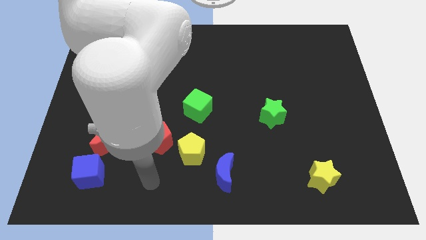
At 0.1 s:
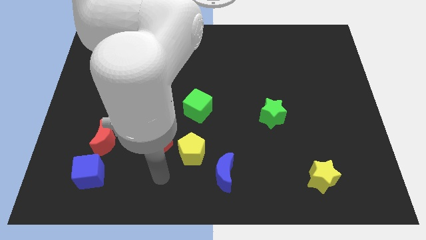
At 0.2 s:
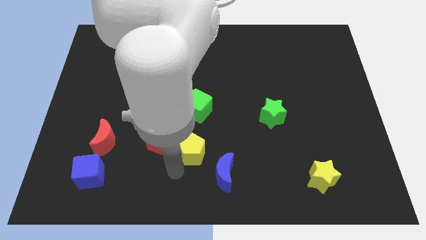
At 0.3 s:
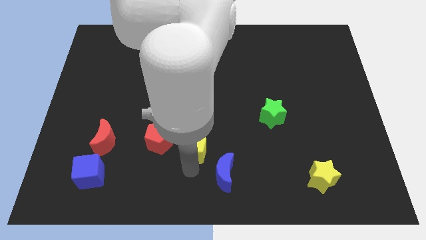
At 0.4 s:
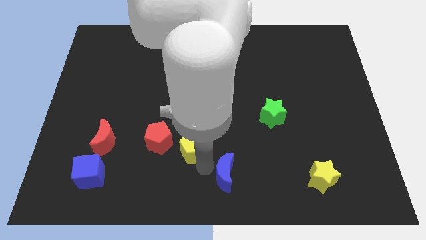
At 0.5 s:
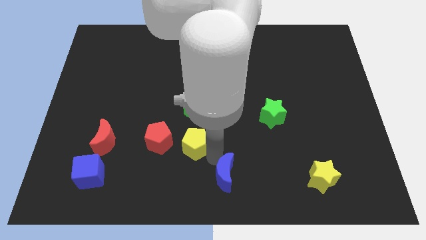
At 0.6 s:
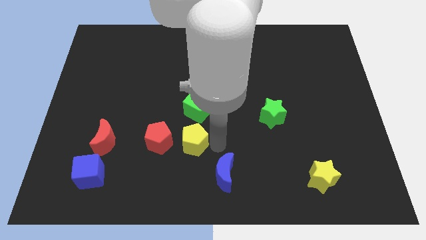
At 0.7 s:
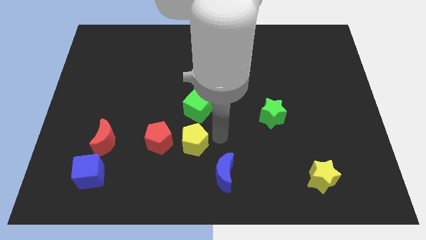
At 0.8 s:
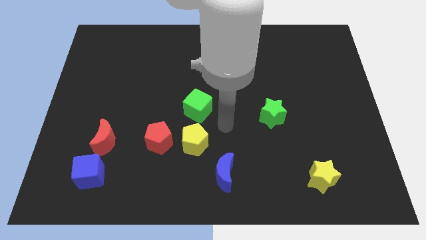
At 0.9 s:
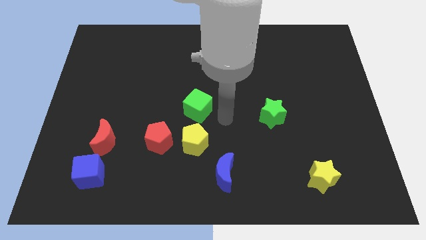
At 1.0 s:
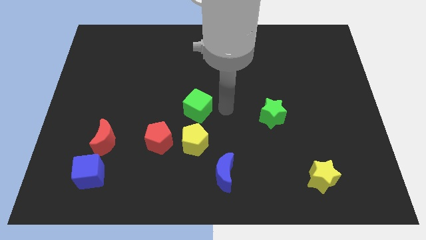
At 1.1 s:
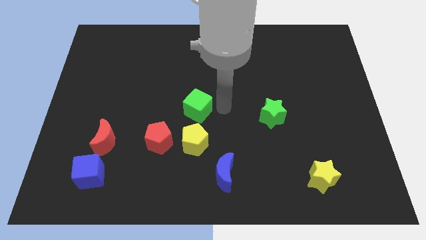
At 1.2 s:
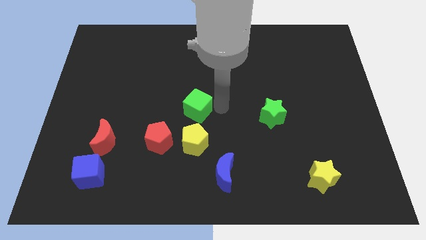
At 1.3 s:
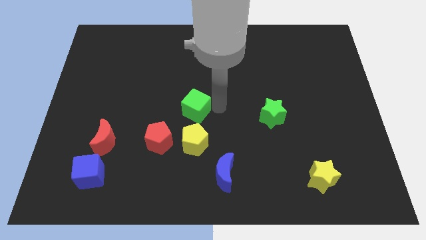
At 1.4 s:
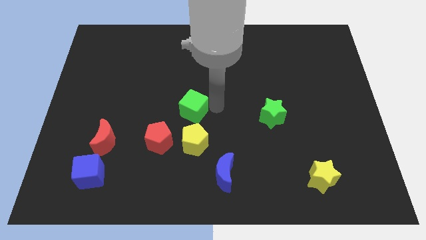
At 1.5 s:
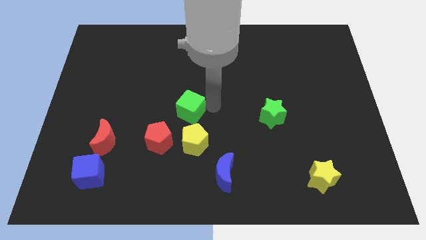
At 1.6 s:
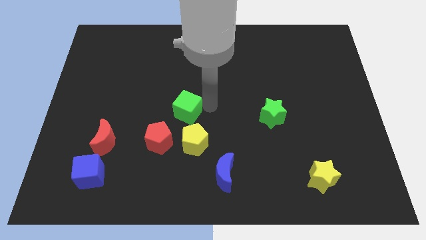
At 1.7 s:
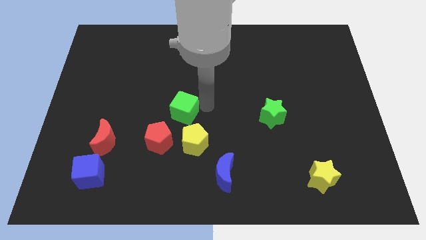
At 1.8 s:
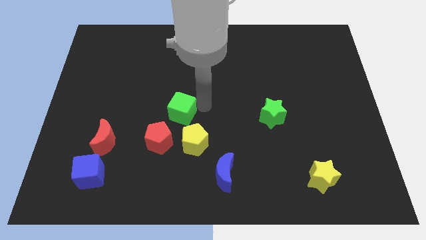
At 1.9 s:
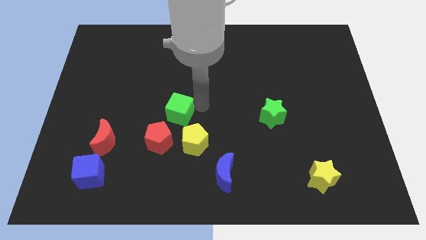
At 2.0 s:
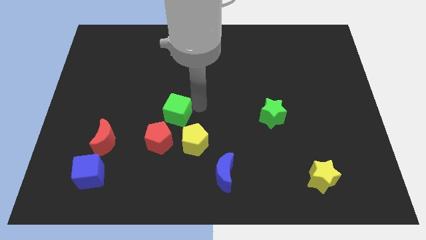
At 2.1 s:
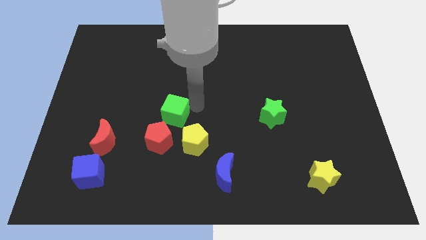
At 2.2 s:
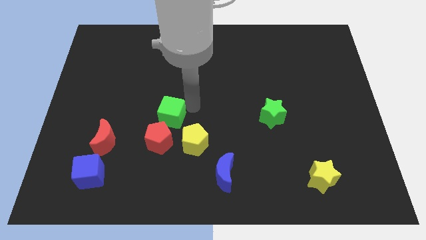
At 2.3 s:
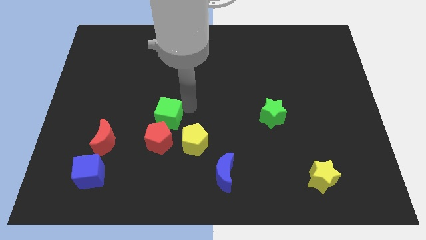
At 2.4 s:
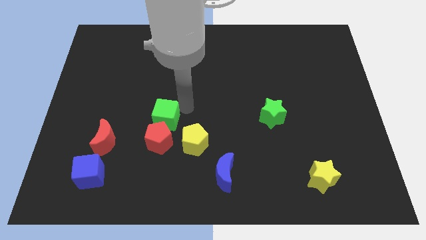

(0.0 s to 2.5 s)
slightly push the green cube left

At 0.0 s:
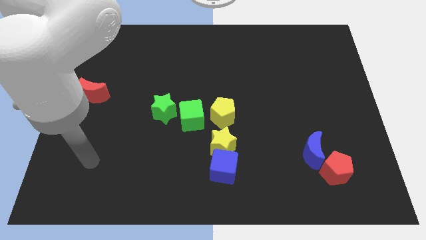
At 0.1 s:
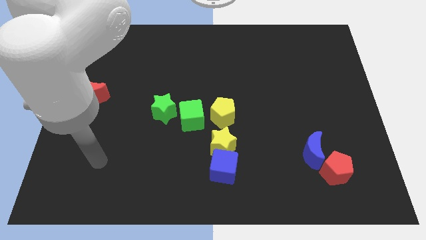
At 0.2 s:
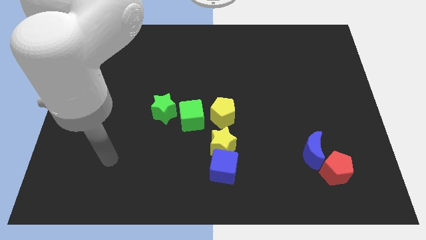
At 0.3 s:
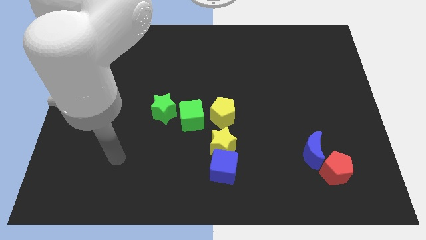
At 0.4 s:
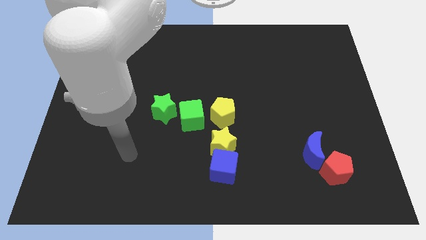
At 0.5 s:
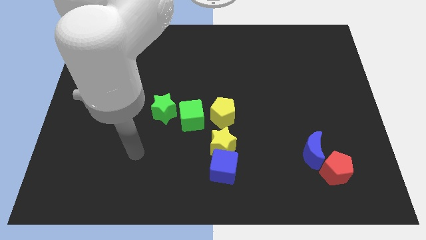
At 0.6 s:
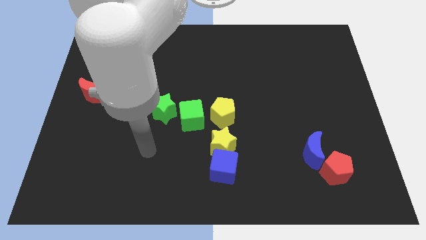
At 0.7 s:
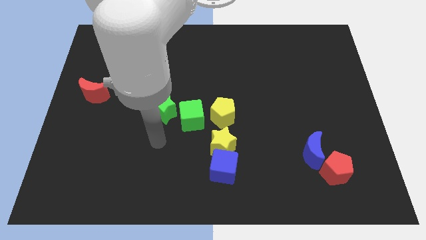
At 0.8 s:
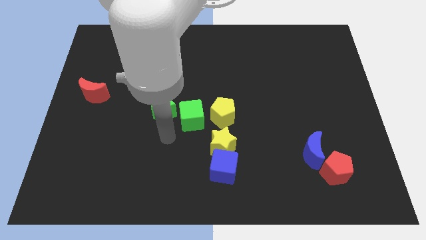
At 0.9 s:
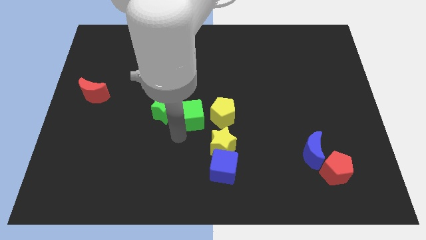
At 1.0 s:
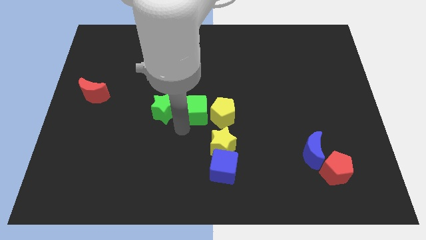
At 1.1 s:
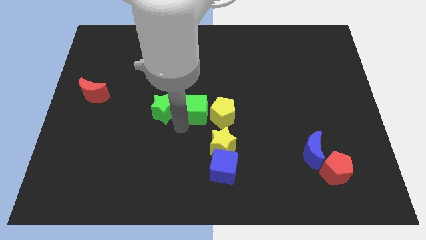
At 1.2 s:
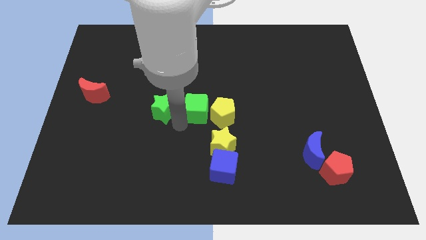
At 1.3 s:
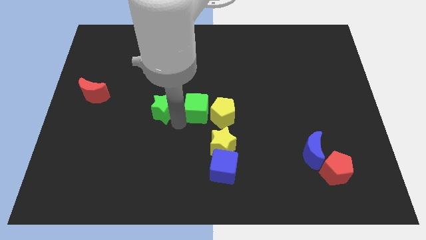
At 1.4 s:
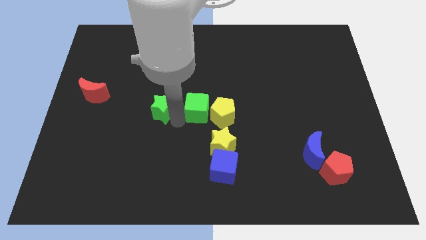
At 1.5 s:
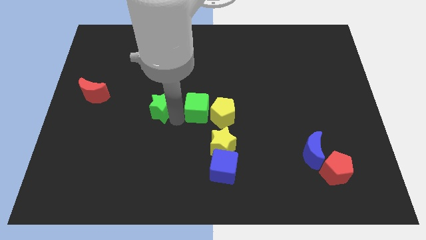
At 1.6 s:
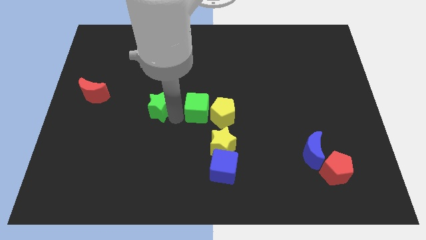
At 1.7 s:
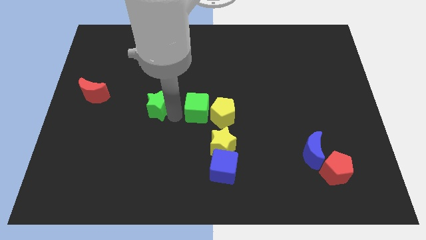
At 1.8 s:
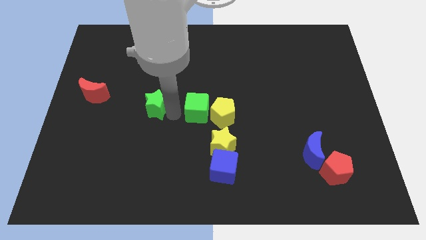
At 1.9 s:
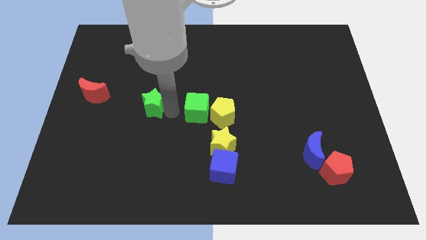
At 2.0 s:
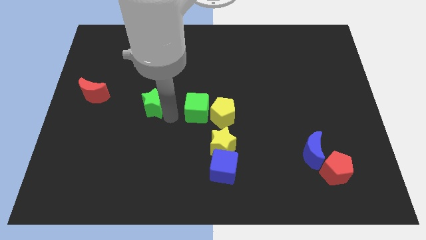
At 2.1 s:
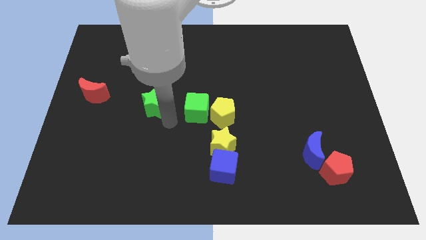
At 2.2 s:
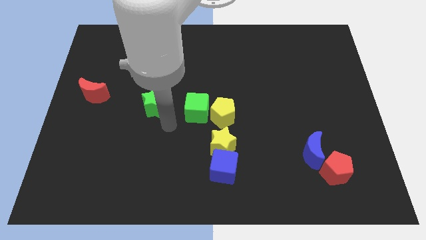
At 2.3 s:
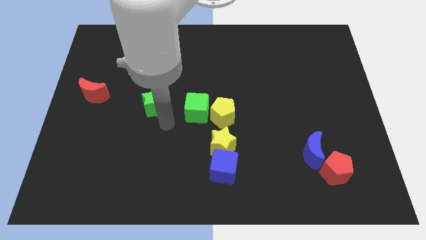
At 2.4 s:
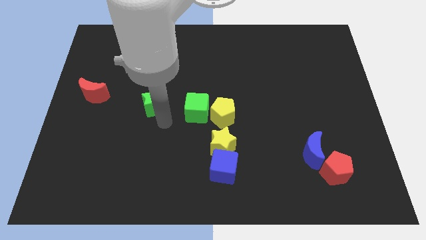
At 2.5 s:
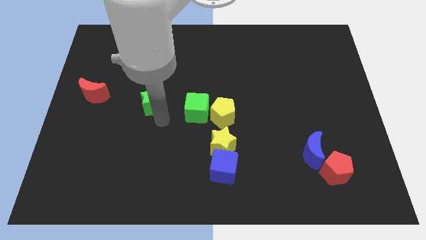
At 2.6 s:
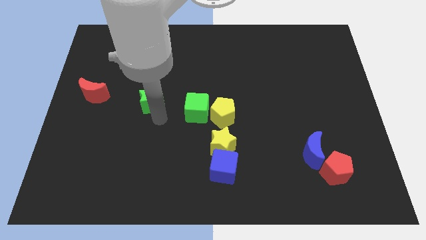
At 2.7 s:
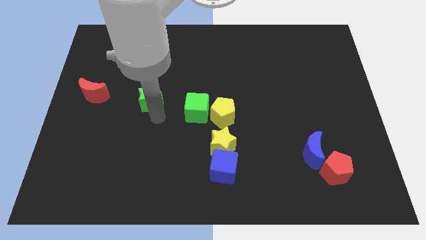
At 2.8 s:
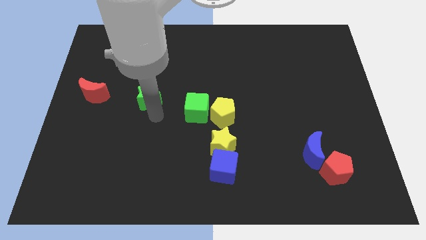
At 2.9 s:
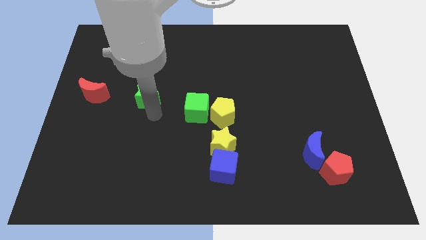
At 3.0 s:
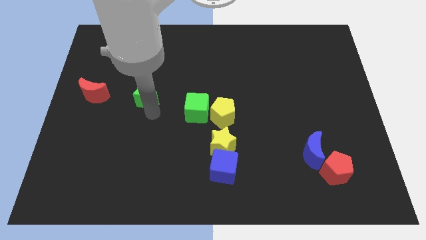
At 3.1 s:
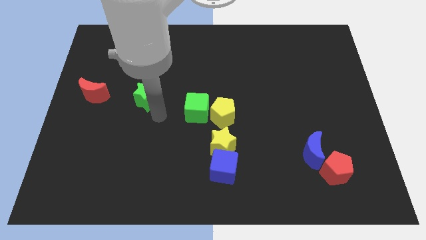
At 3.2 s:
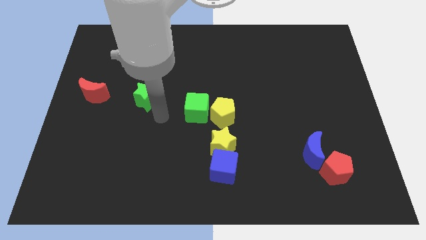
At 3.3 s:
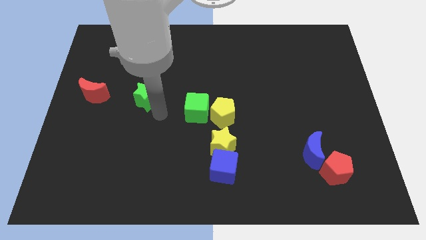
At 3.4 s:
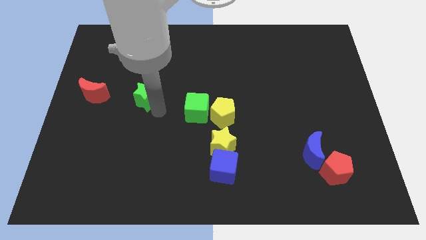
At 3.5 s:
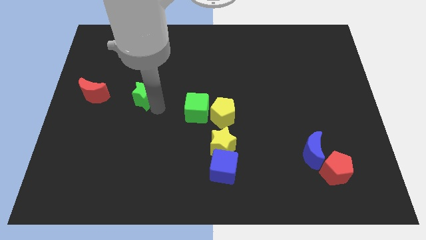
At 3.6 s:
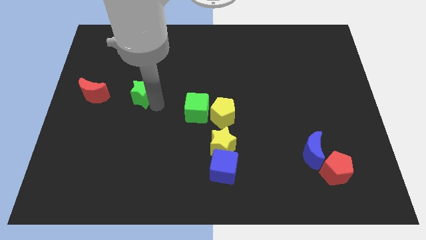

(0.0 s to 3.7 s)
slightly move the green star upwards and then left

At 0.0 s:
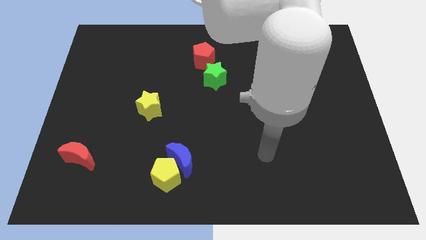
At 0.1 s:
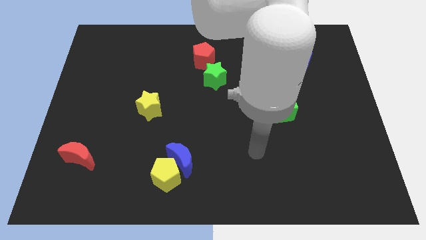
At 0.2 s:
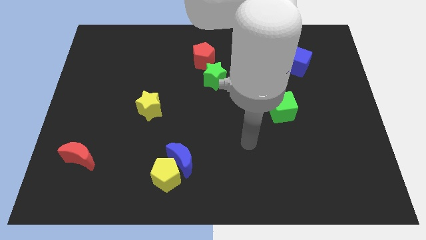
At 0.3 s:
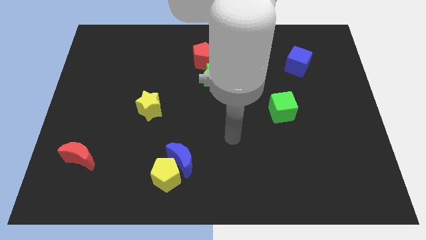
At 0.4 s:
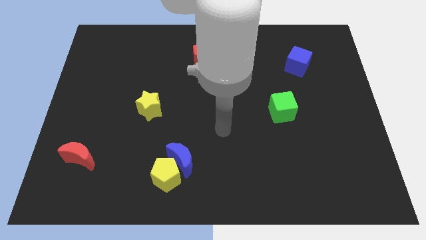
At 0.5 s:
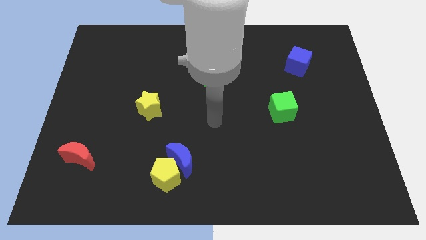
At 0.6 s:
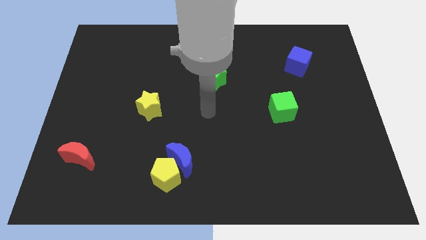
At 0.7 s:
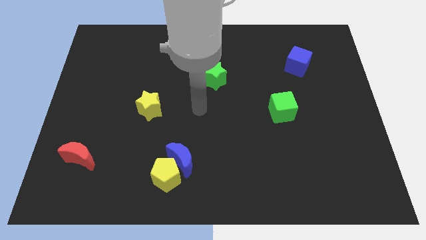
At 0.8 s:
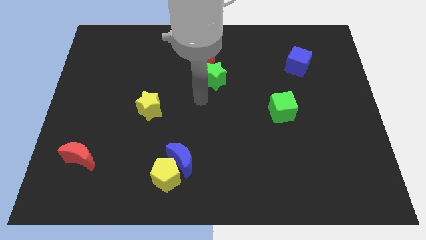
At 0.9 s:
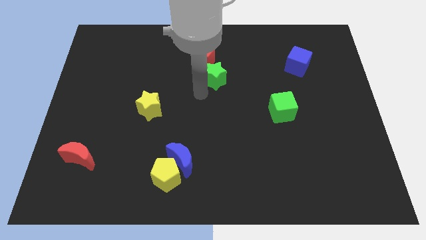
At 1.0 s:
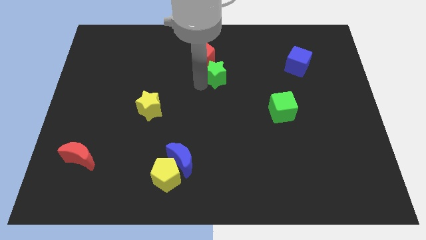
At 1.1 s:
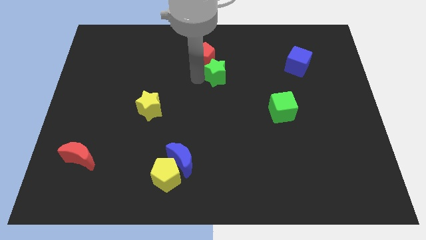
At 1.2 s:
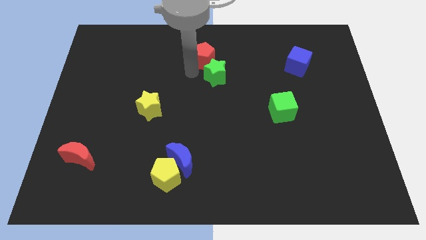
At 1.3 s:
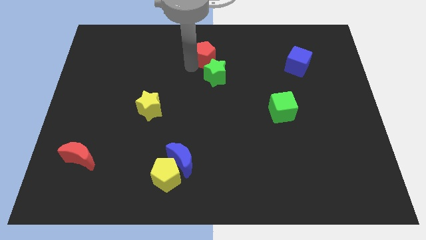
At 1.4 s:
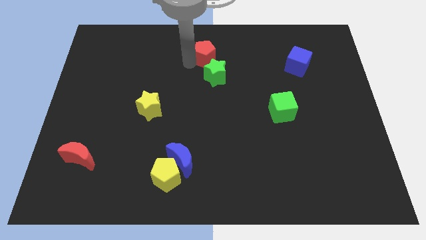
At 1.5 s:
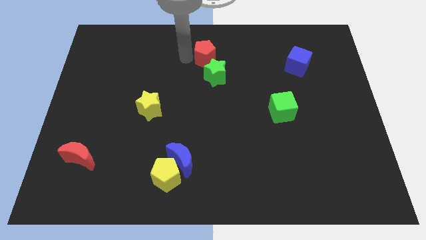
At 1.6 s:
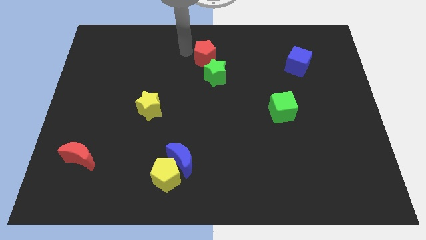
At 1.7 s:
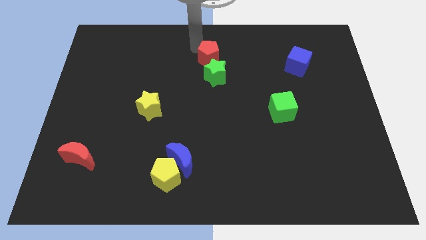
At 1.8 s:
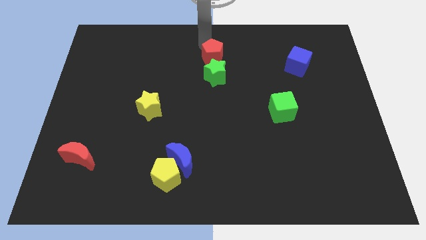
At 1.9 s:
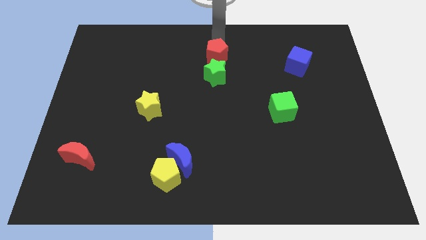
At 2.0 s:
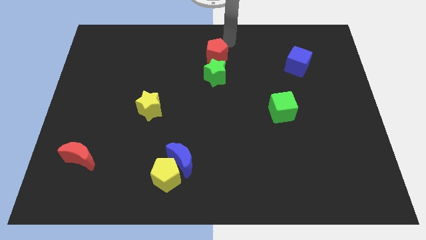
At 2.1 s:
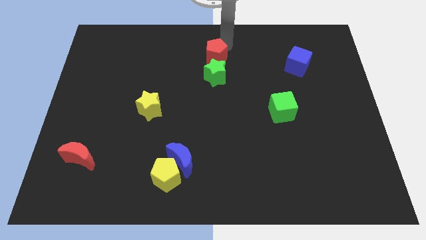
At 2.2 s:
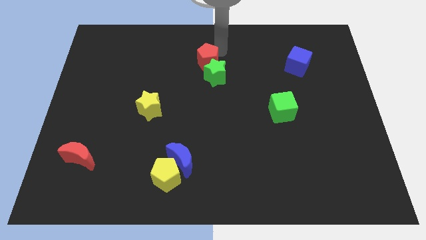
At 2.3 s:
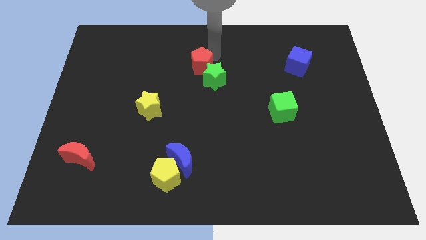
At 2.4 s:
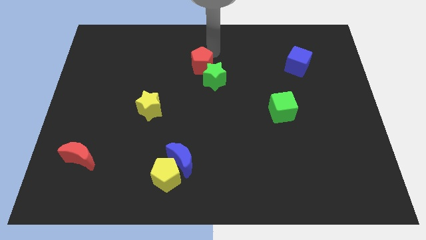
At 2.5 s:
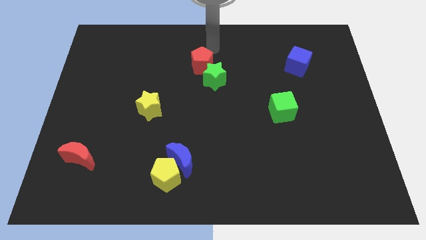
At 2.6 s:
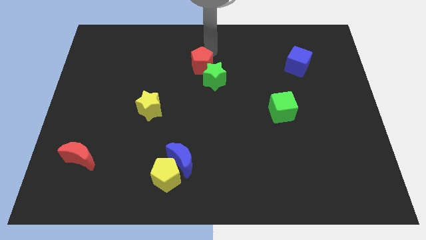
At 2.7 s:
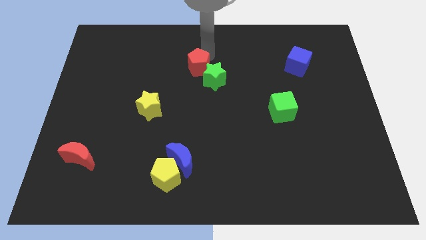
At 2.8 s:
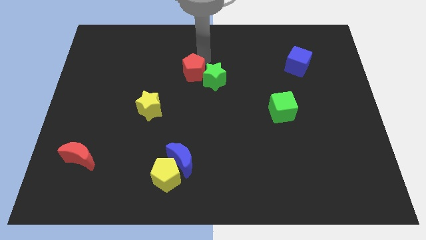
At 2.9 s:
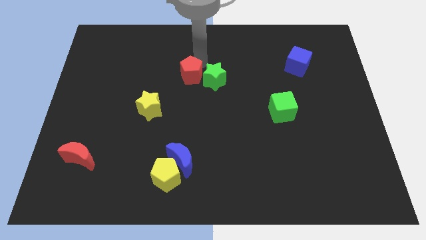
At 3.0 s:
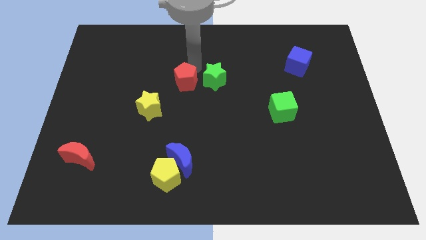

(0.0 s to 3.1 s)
push the red pentagon somewhat downwards
